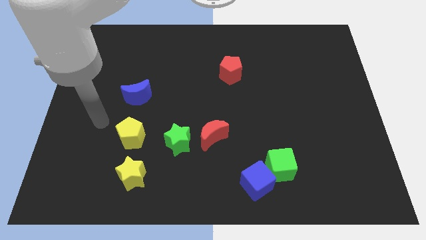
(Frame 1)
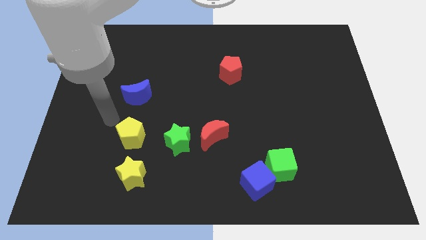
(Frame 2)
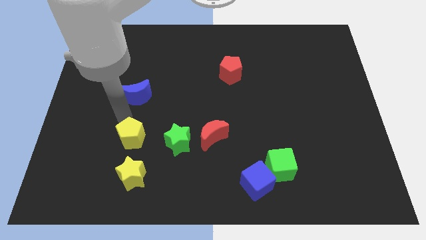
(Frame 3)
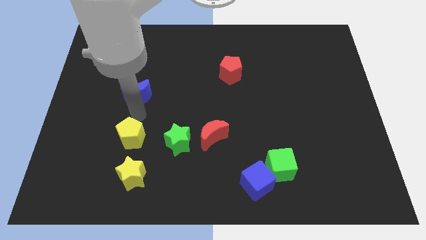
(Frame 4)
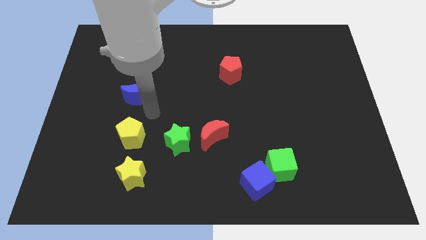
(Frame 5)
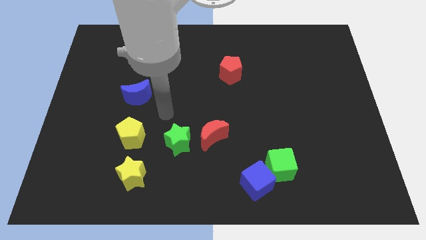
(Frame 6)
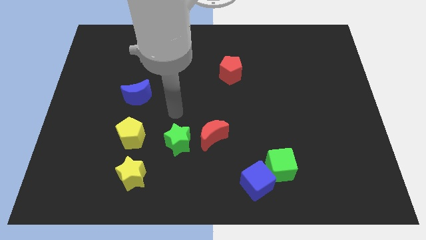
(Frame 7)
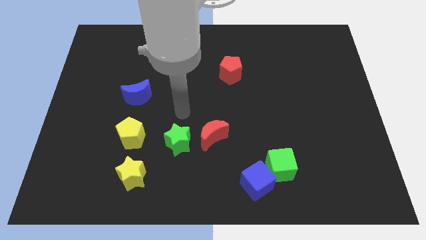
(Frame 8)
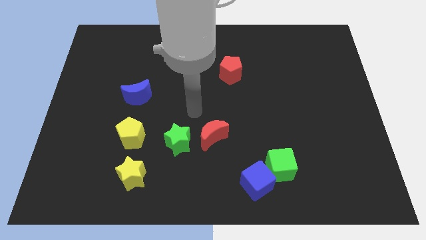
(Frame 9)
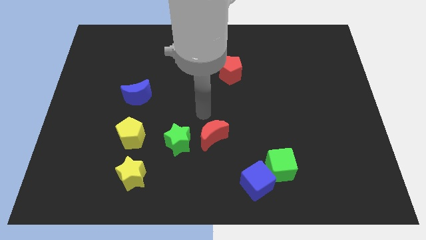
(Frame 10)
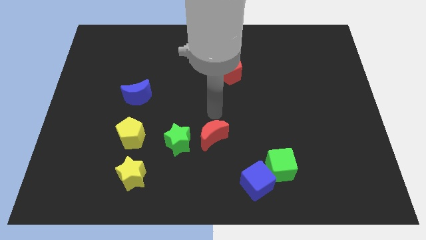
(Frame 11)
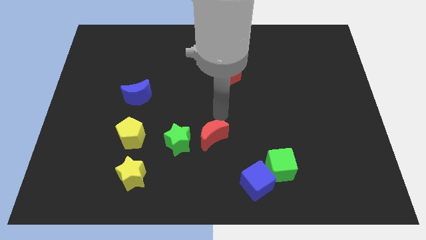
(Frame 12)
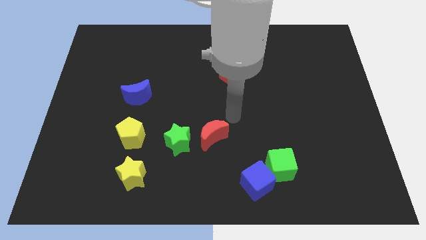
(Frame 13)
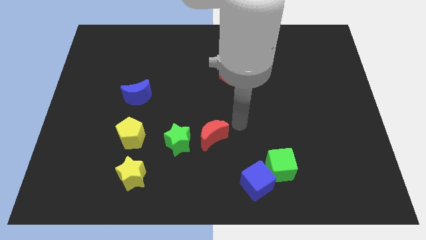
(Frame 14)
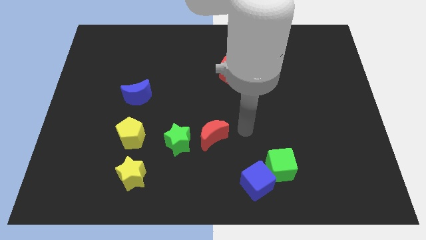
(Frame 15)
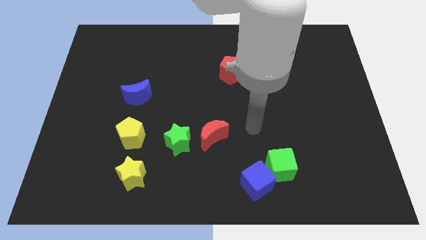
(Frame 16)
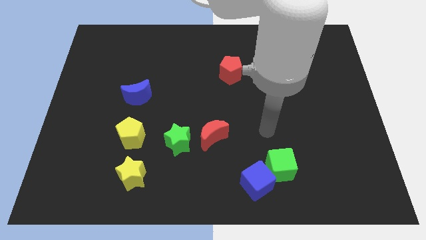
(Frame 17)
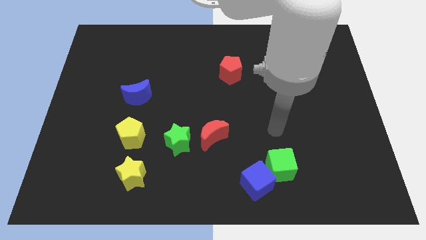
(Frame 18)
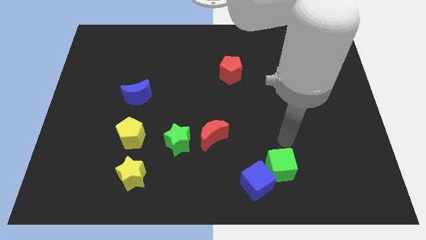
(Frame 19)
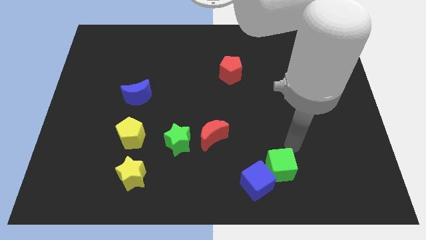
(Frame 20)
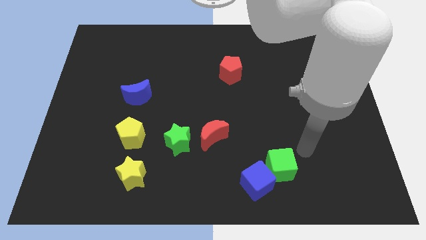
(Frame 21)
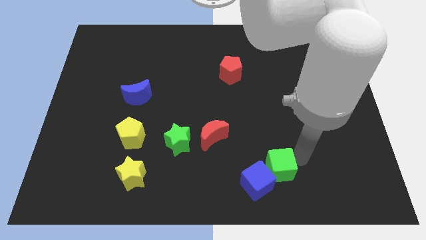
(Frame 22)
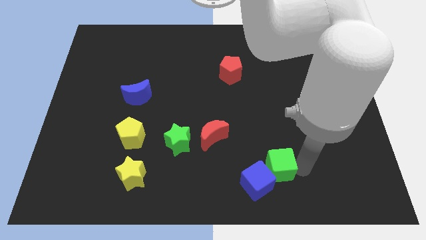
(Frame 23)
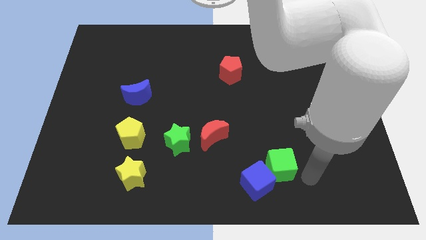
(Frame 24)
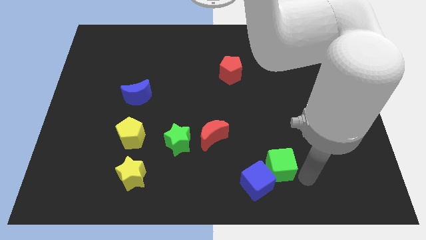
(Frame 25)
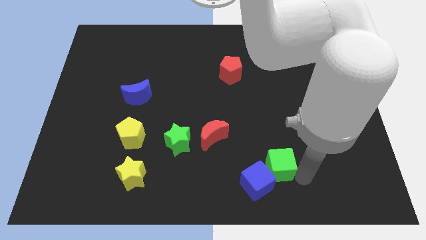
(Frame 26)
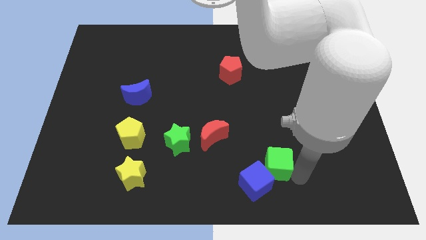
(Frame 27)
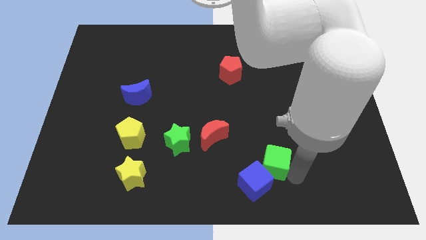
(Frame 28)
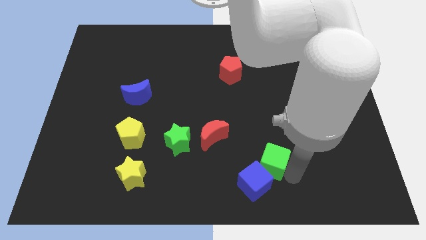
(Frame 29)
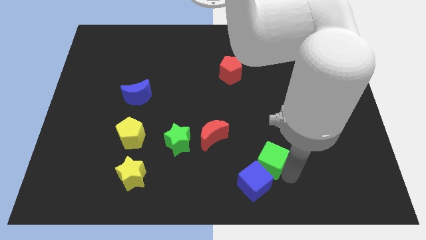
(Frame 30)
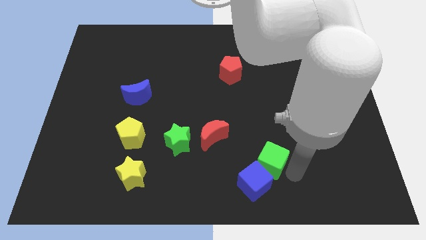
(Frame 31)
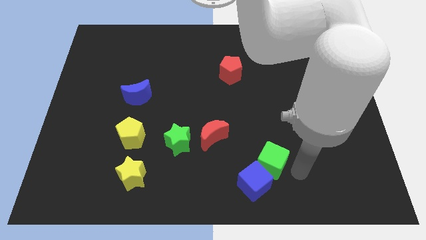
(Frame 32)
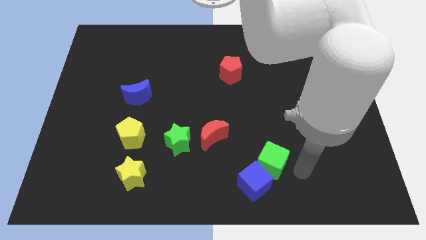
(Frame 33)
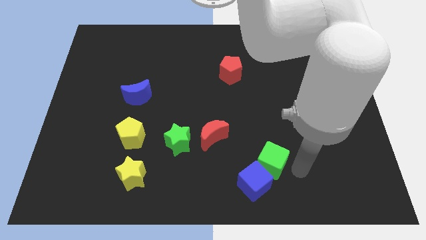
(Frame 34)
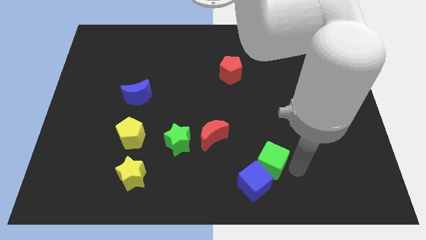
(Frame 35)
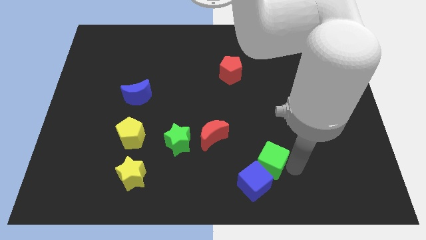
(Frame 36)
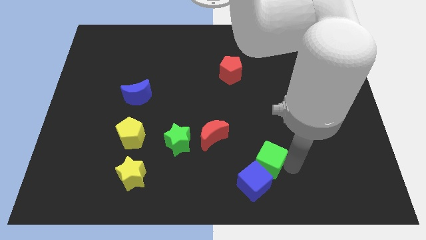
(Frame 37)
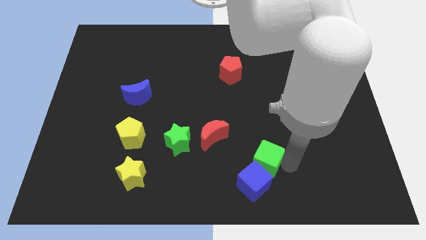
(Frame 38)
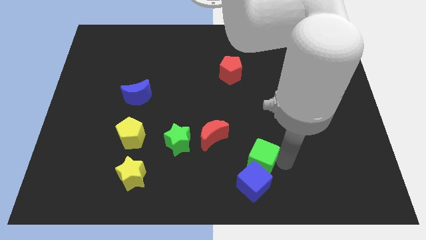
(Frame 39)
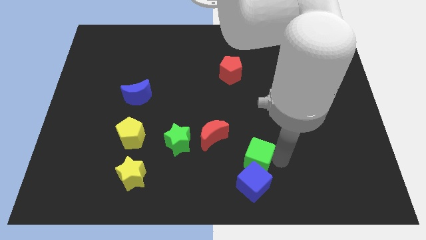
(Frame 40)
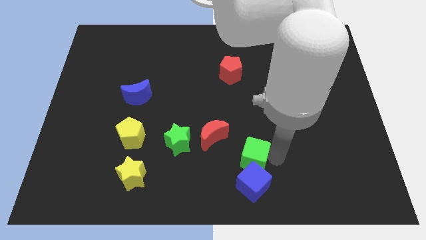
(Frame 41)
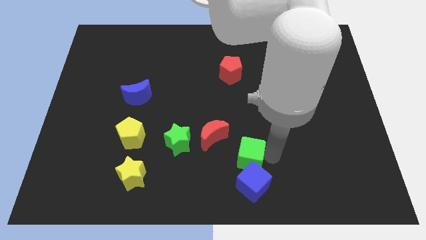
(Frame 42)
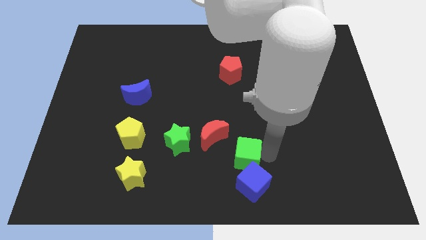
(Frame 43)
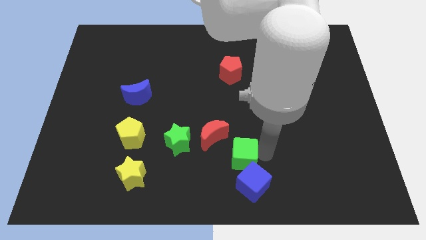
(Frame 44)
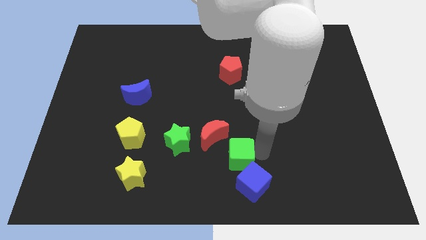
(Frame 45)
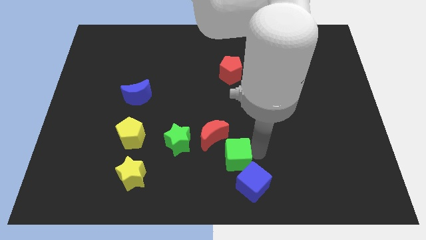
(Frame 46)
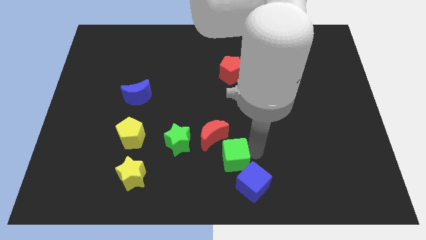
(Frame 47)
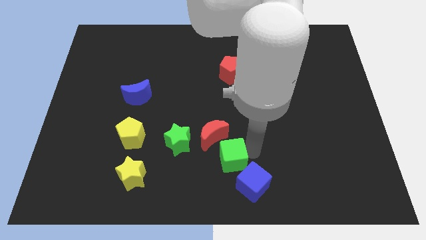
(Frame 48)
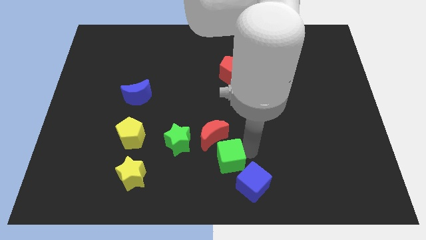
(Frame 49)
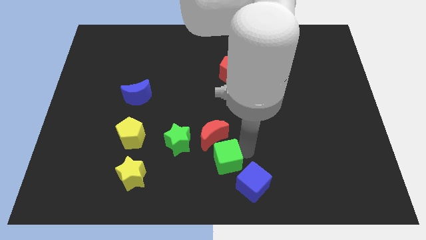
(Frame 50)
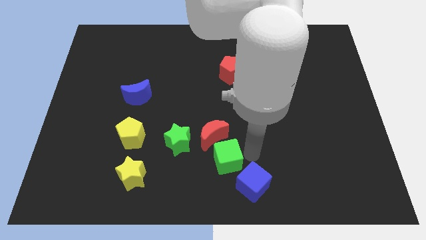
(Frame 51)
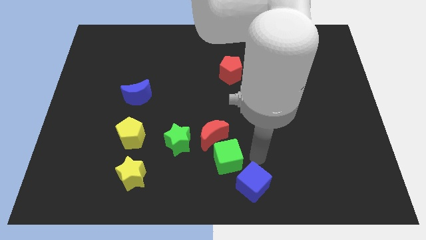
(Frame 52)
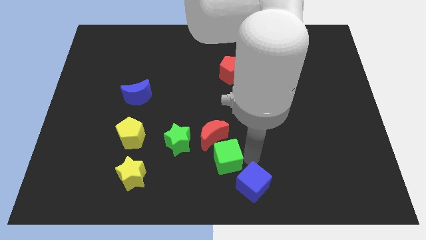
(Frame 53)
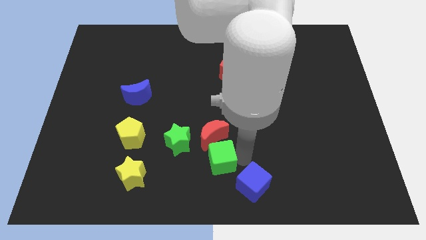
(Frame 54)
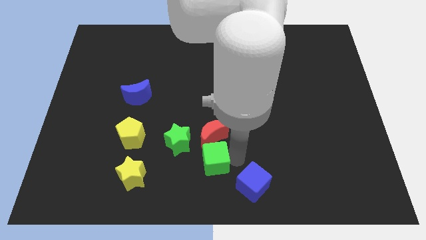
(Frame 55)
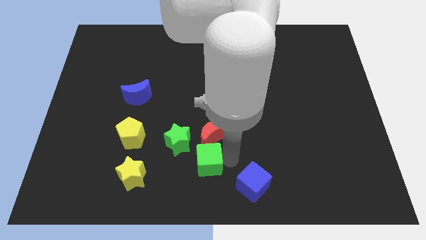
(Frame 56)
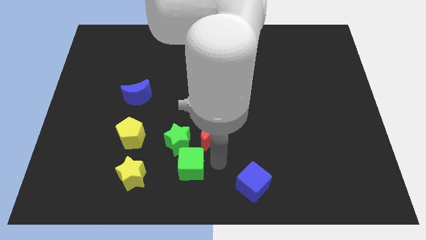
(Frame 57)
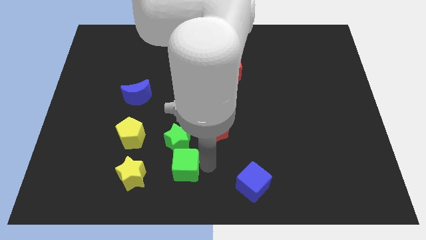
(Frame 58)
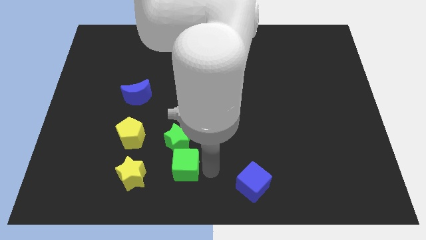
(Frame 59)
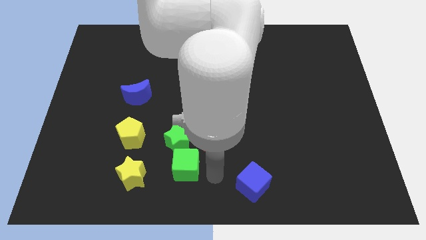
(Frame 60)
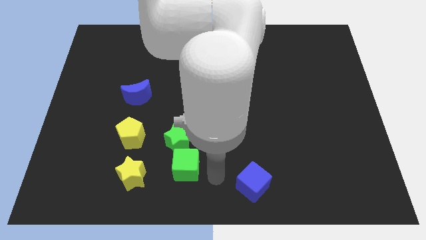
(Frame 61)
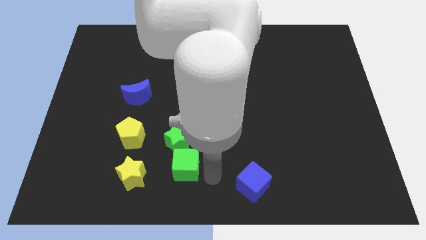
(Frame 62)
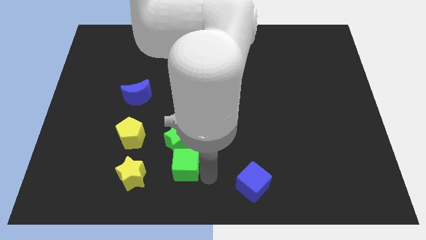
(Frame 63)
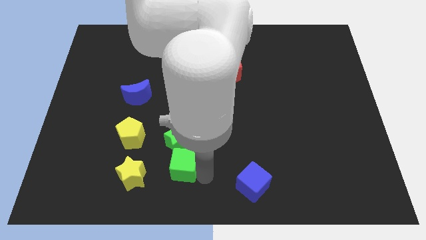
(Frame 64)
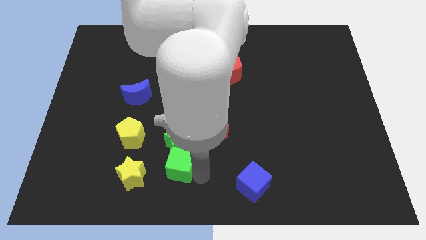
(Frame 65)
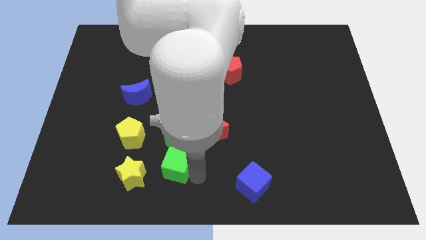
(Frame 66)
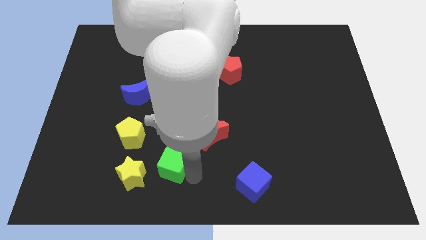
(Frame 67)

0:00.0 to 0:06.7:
push the green cube to the bottom right side of the yellow pentagon

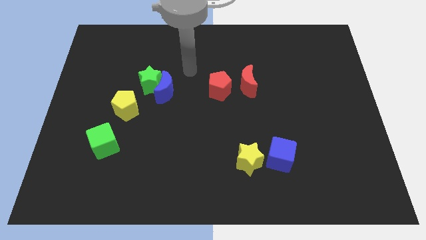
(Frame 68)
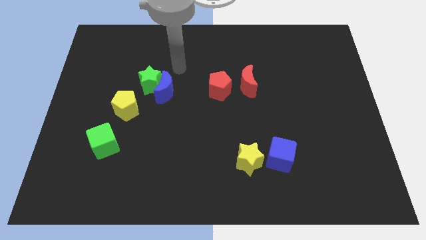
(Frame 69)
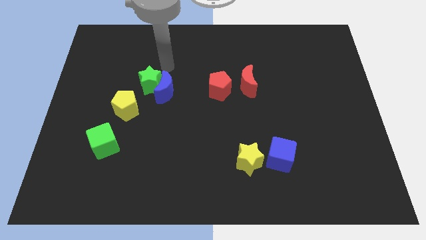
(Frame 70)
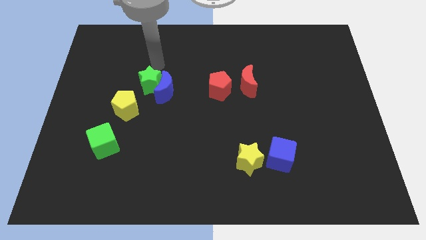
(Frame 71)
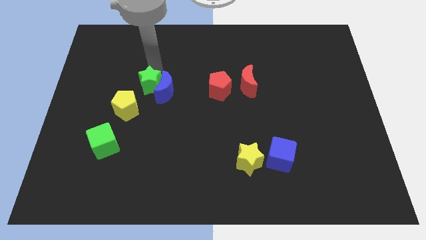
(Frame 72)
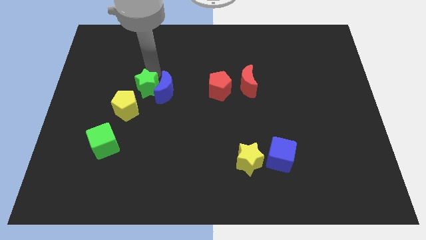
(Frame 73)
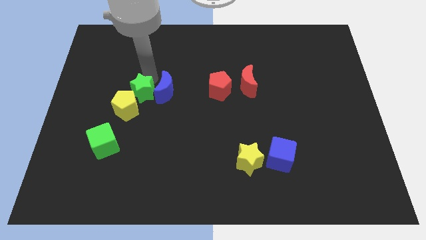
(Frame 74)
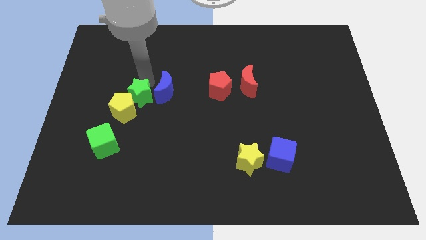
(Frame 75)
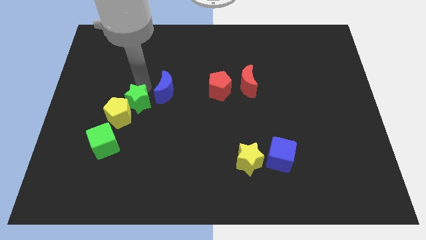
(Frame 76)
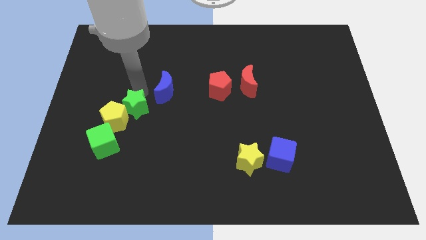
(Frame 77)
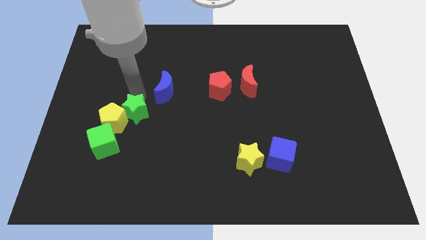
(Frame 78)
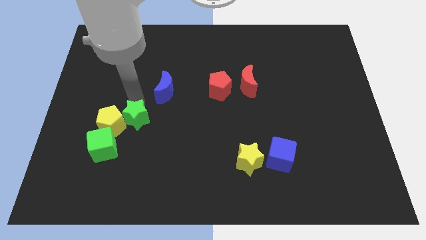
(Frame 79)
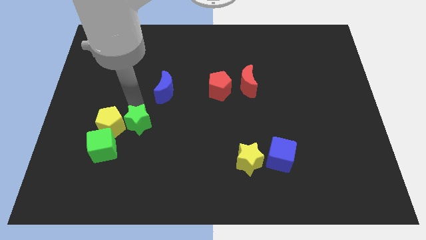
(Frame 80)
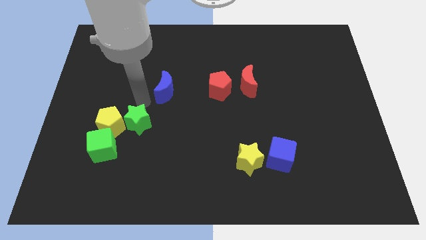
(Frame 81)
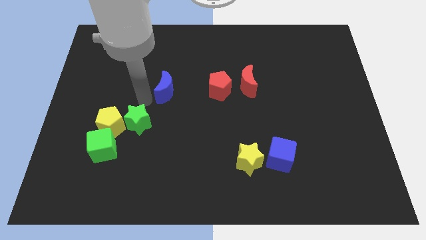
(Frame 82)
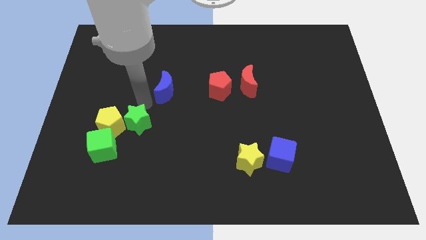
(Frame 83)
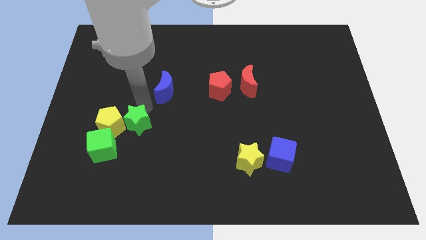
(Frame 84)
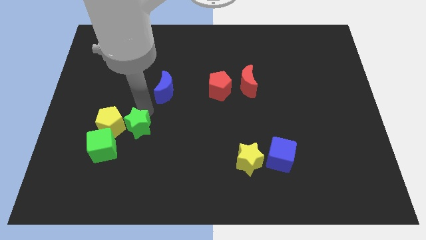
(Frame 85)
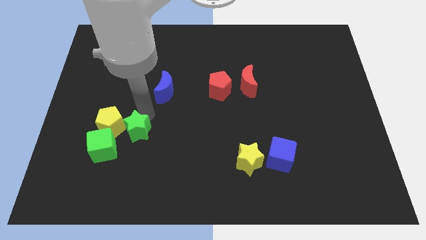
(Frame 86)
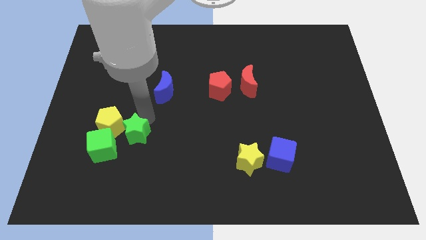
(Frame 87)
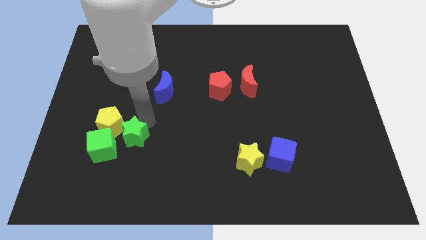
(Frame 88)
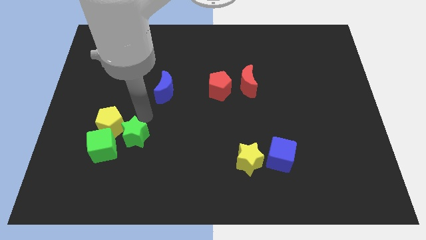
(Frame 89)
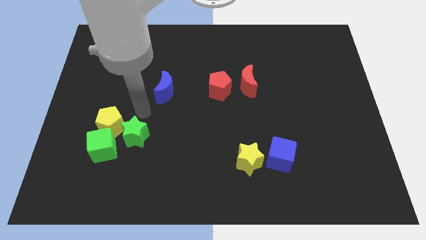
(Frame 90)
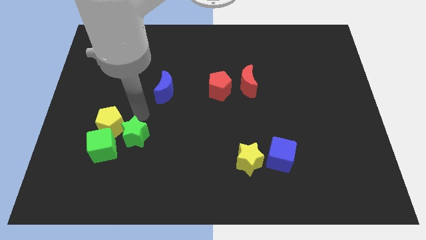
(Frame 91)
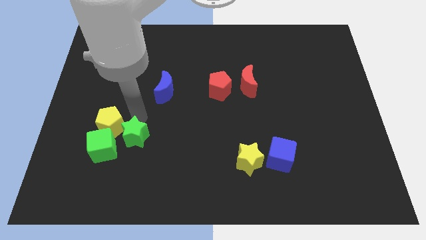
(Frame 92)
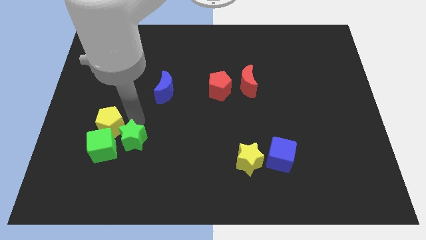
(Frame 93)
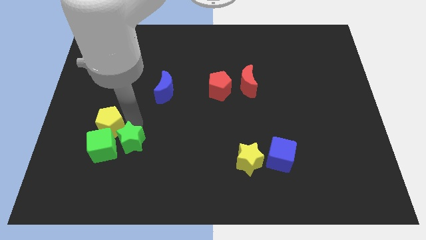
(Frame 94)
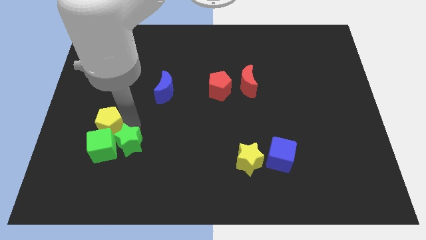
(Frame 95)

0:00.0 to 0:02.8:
move the green star diagonally down and to the right of the green cube
